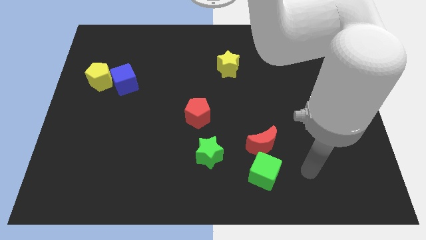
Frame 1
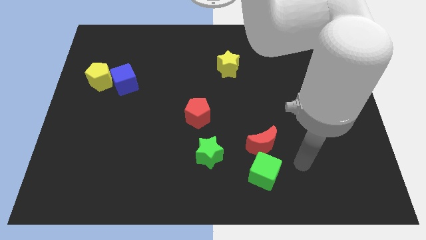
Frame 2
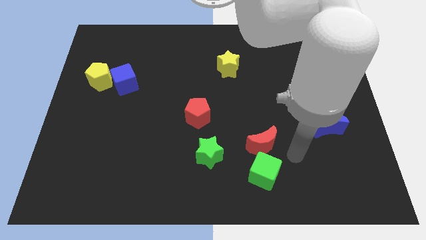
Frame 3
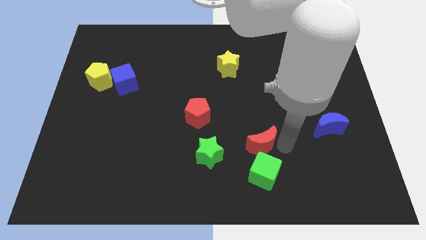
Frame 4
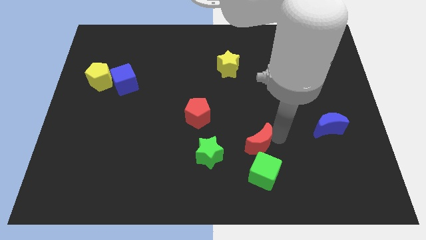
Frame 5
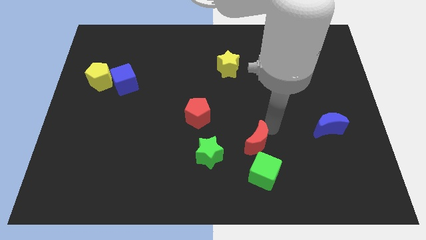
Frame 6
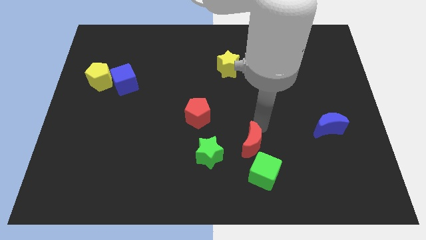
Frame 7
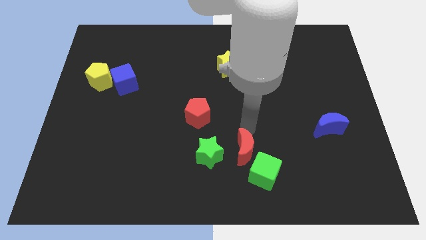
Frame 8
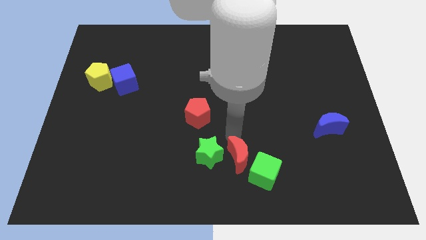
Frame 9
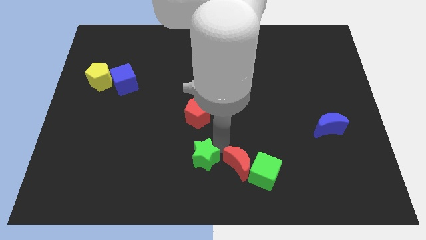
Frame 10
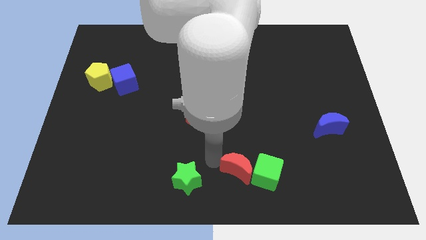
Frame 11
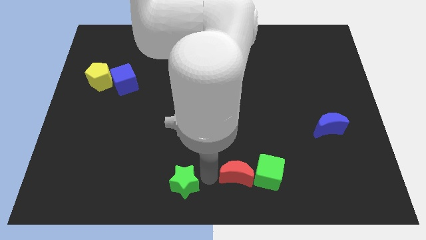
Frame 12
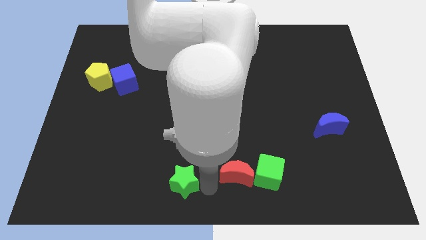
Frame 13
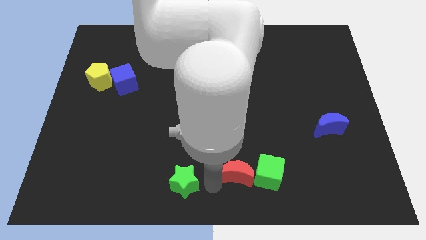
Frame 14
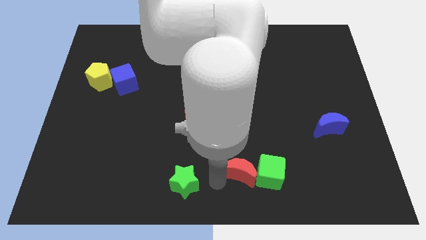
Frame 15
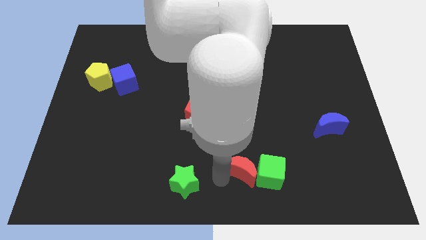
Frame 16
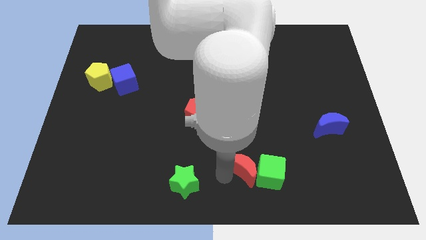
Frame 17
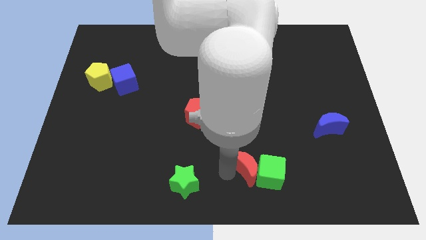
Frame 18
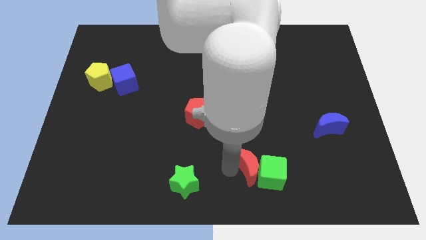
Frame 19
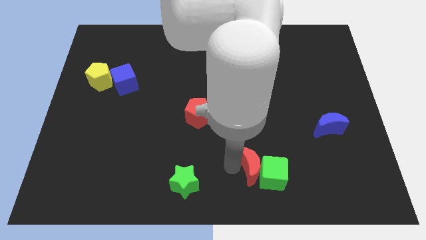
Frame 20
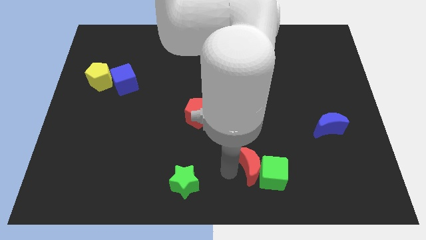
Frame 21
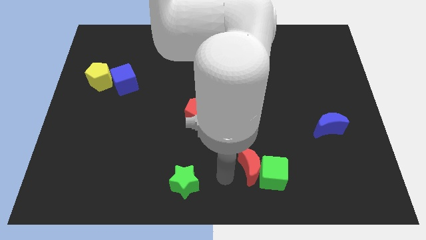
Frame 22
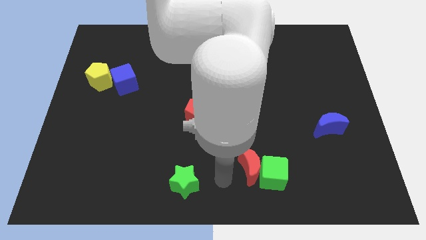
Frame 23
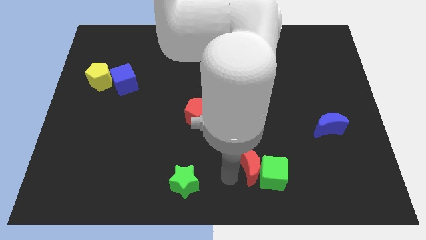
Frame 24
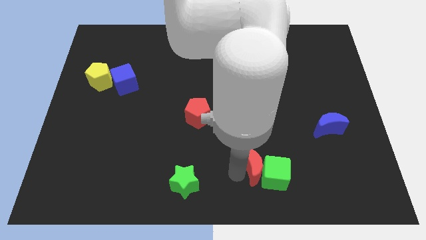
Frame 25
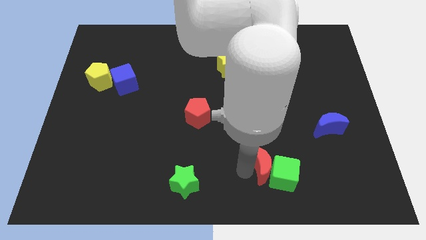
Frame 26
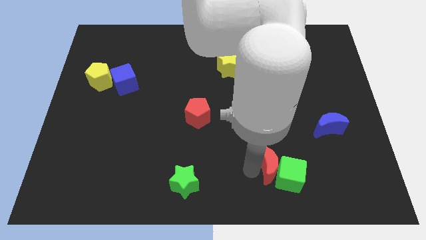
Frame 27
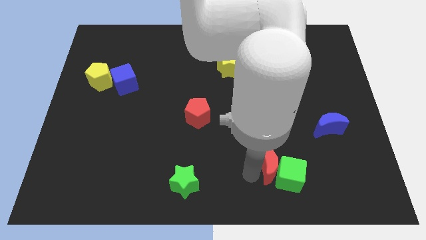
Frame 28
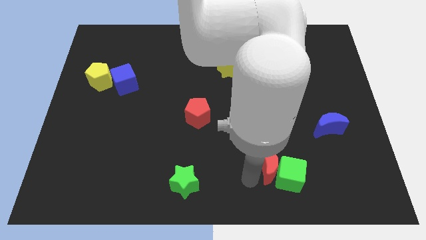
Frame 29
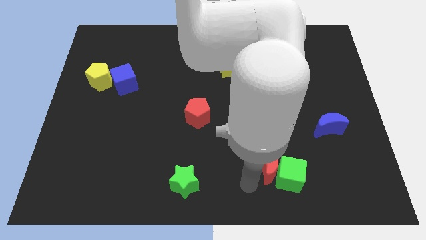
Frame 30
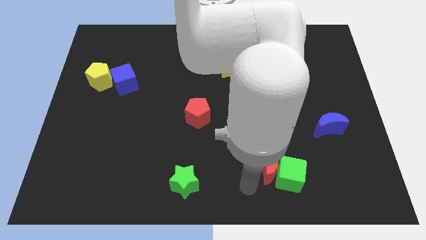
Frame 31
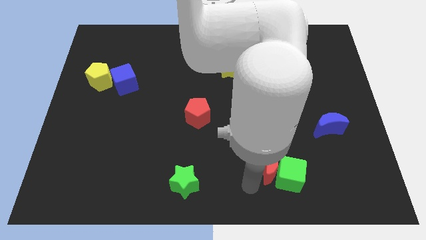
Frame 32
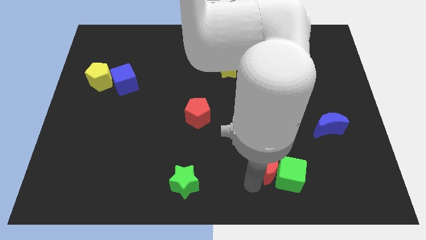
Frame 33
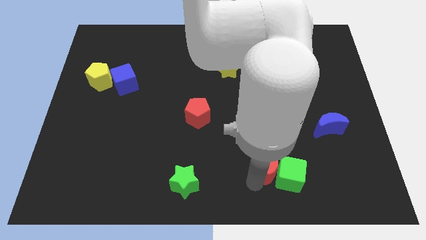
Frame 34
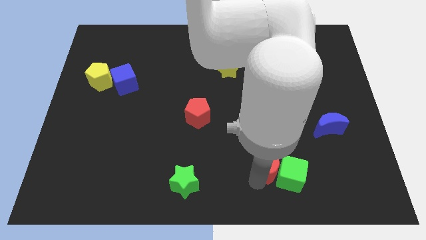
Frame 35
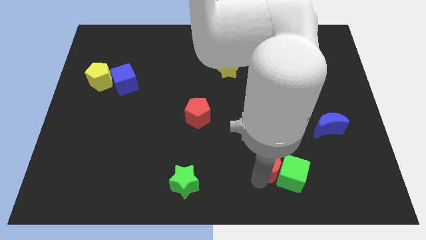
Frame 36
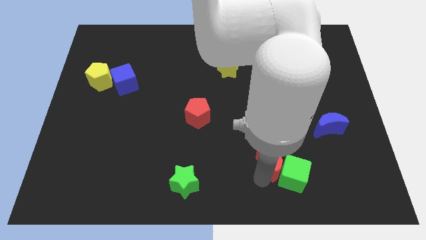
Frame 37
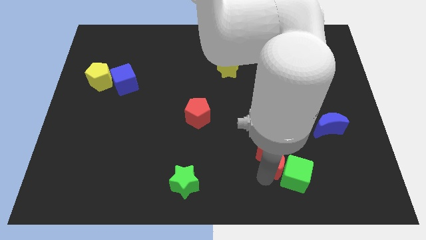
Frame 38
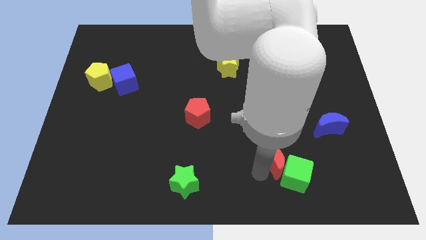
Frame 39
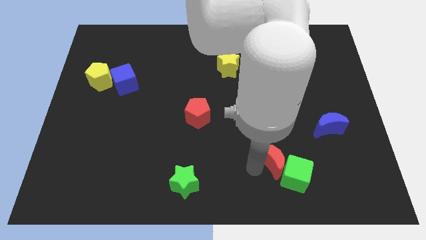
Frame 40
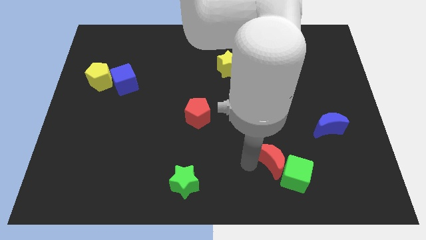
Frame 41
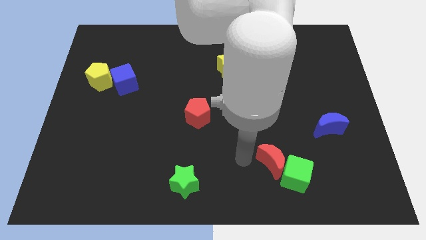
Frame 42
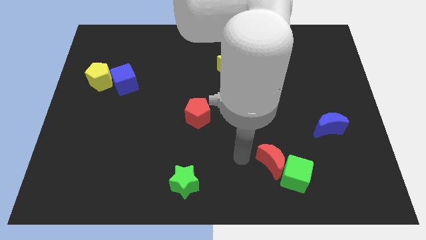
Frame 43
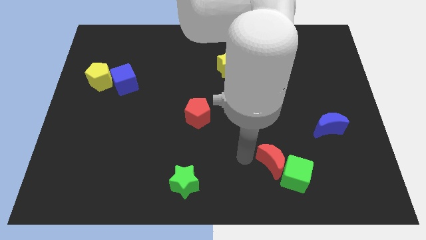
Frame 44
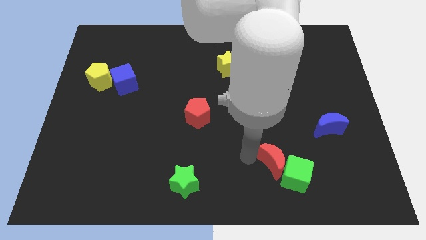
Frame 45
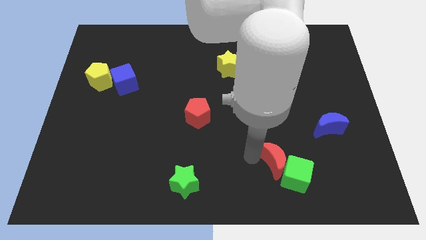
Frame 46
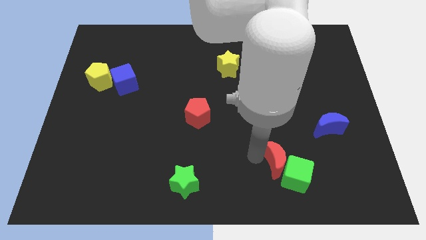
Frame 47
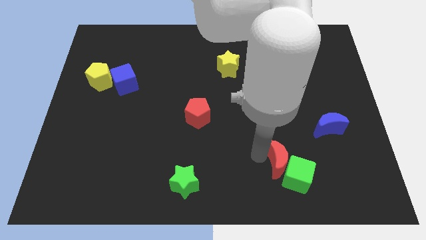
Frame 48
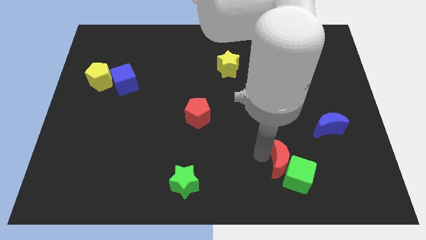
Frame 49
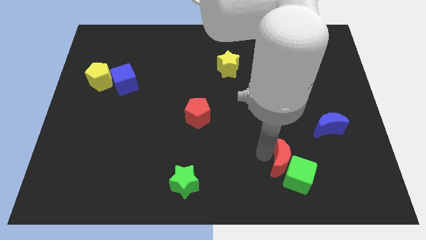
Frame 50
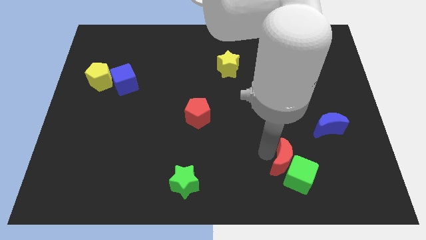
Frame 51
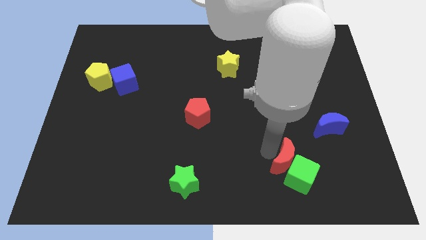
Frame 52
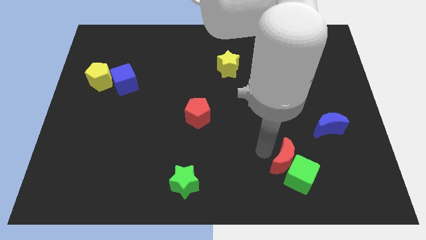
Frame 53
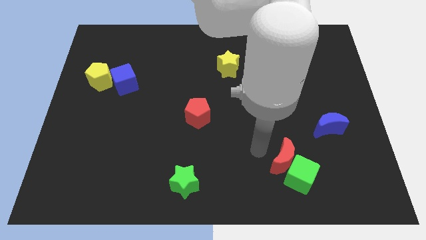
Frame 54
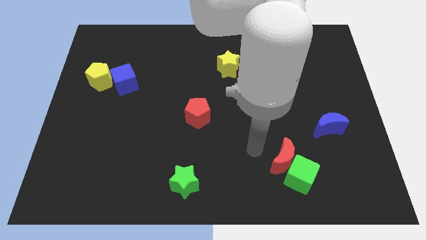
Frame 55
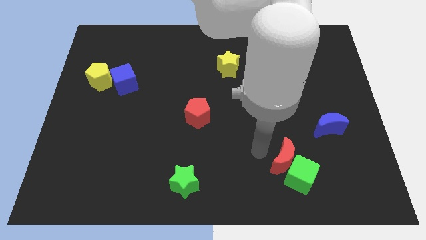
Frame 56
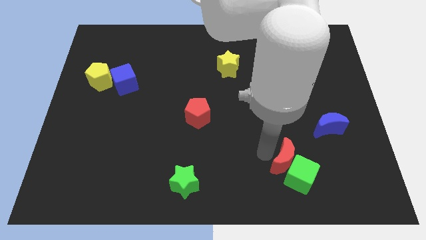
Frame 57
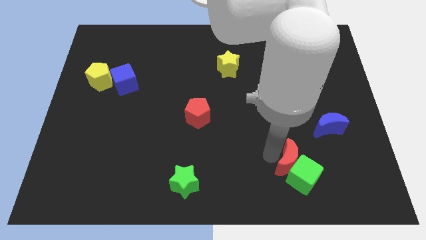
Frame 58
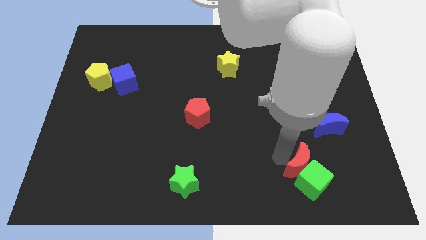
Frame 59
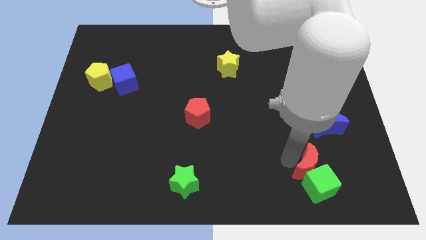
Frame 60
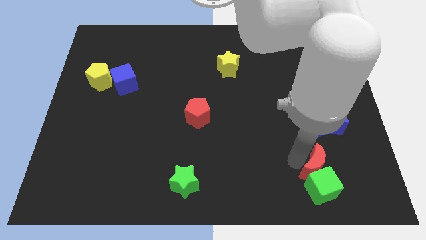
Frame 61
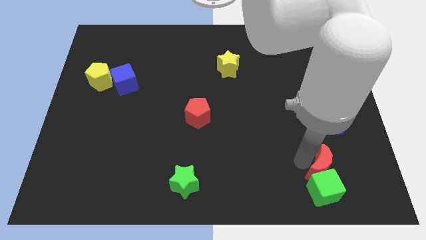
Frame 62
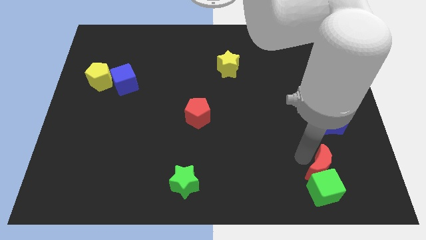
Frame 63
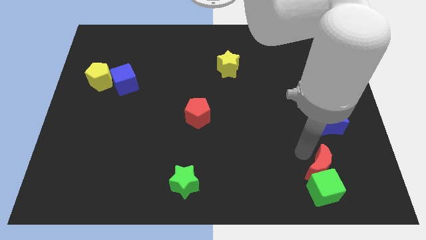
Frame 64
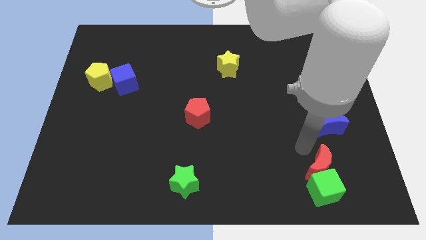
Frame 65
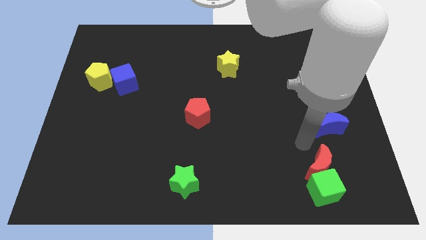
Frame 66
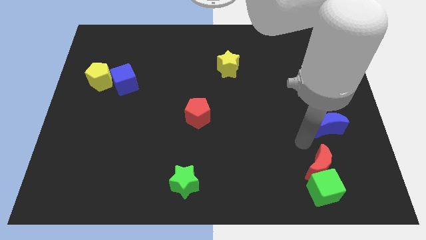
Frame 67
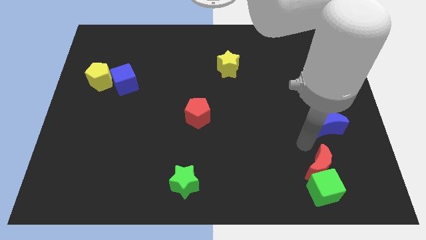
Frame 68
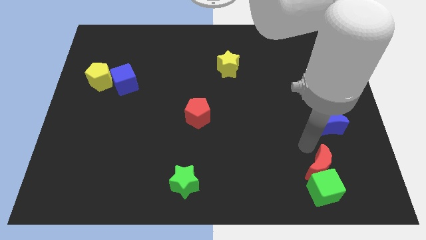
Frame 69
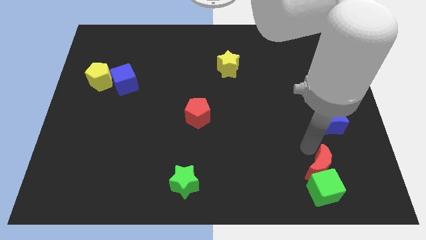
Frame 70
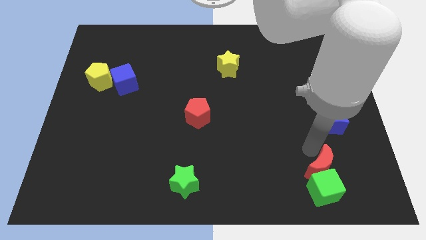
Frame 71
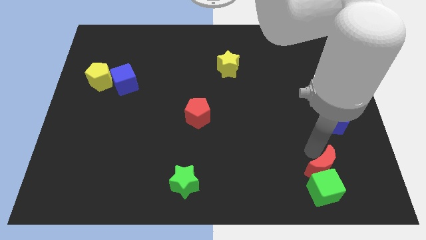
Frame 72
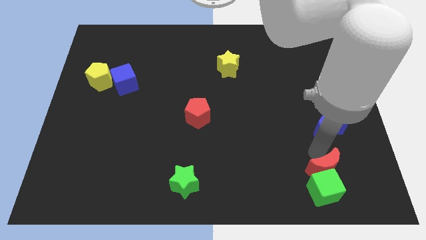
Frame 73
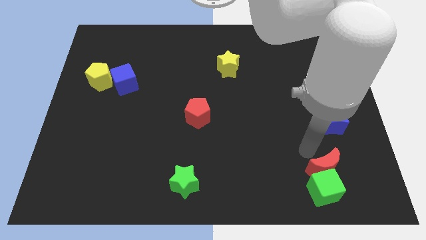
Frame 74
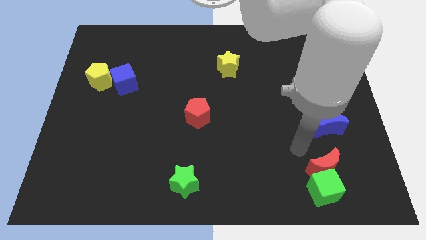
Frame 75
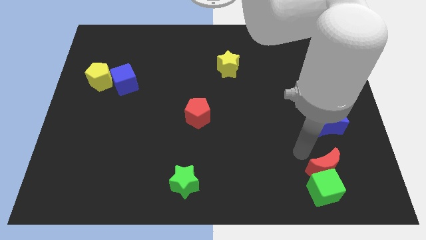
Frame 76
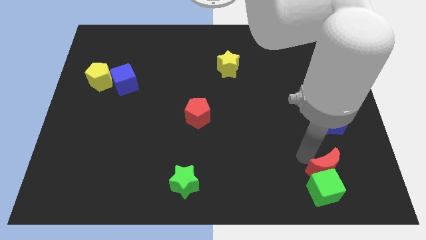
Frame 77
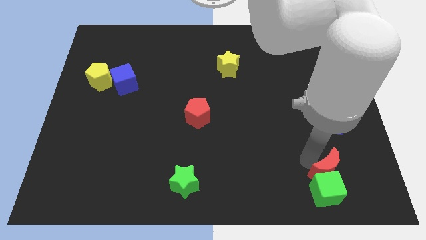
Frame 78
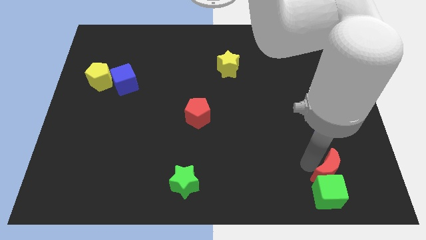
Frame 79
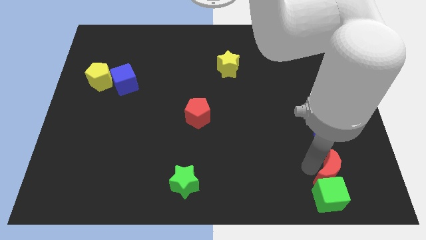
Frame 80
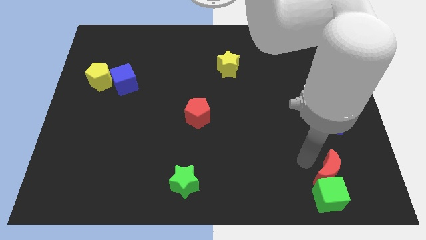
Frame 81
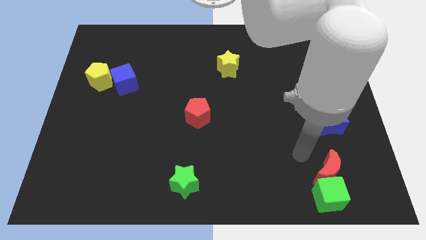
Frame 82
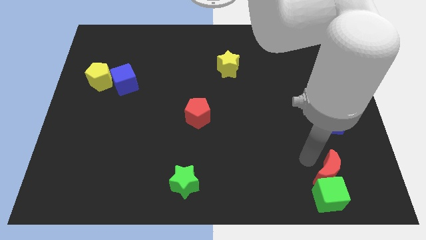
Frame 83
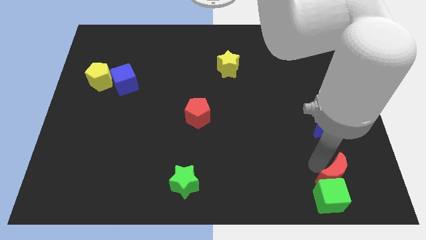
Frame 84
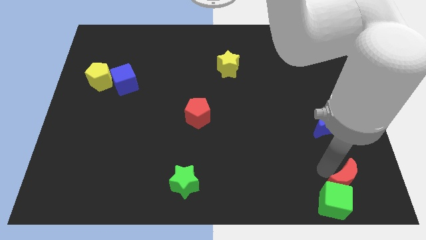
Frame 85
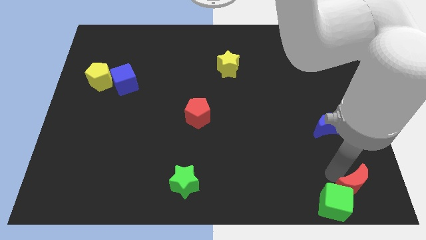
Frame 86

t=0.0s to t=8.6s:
push the red moon to the bottom right
